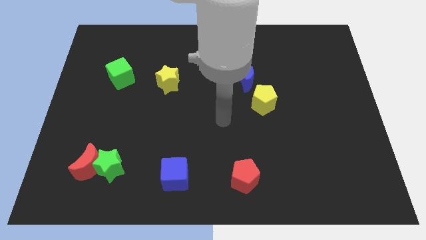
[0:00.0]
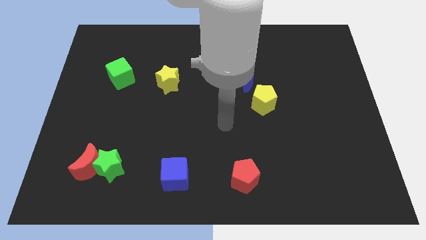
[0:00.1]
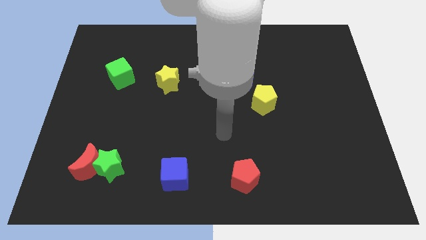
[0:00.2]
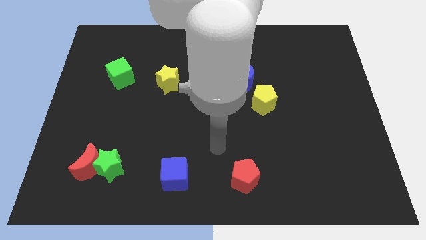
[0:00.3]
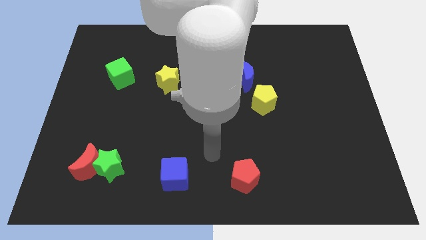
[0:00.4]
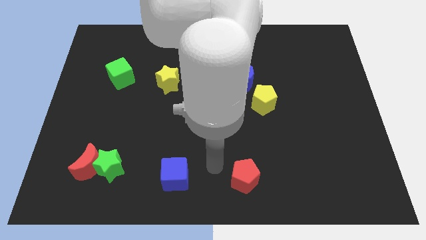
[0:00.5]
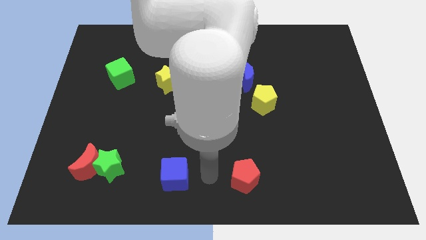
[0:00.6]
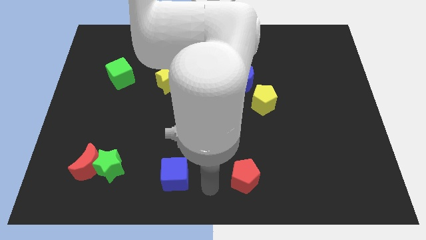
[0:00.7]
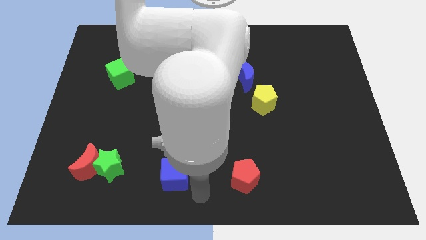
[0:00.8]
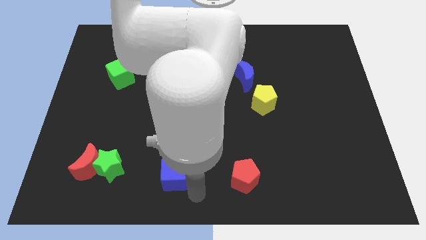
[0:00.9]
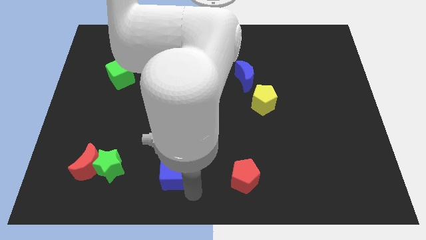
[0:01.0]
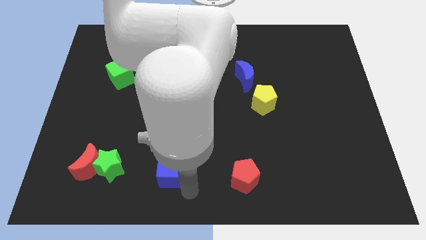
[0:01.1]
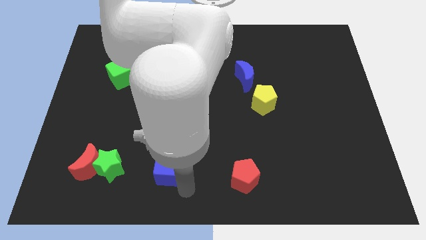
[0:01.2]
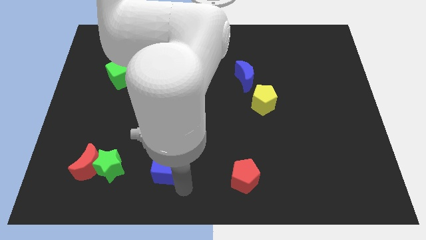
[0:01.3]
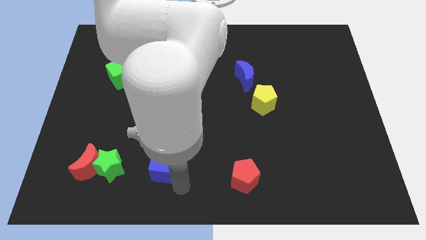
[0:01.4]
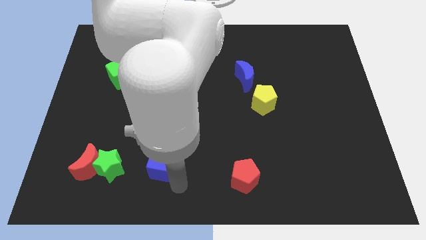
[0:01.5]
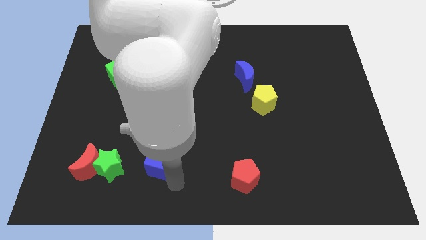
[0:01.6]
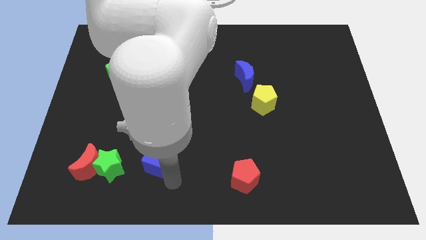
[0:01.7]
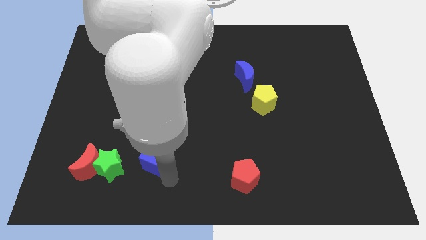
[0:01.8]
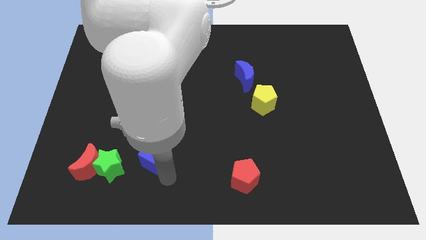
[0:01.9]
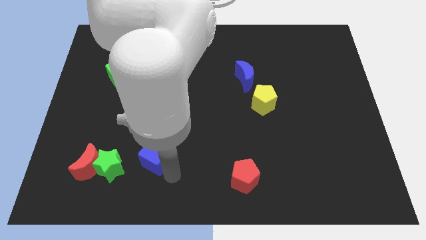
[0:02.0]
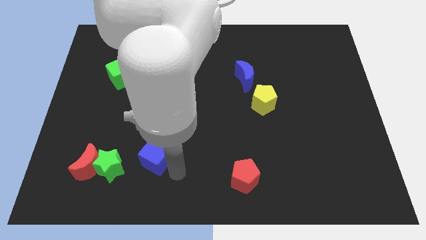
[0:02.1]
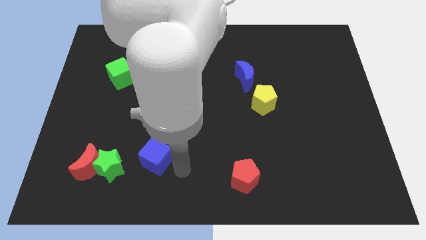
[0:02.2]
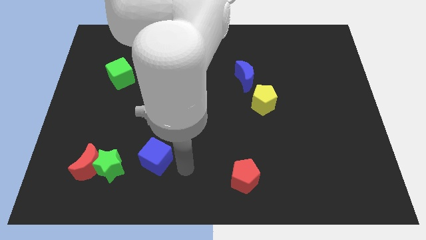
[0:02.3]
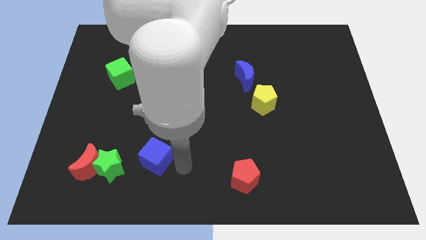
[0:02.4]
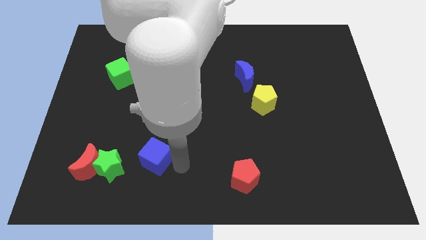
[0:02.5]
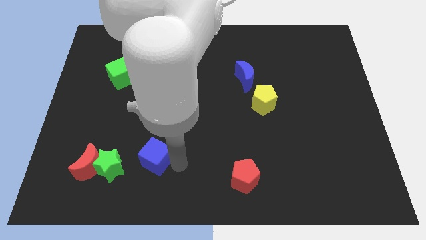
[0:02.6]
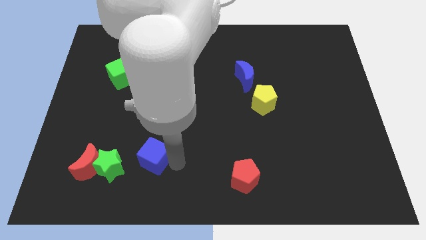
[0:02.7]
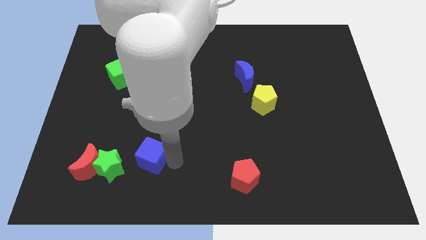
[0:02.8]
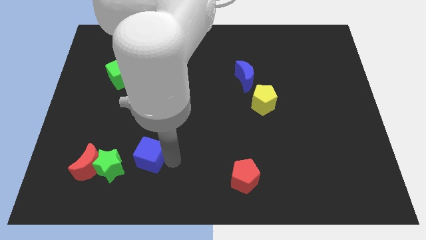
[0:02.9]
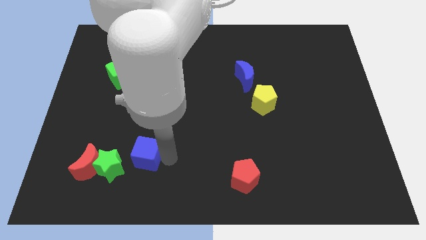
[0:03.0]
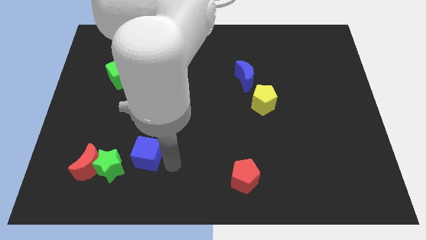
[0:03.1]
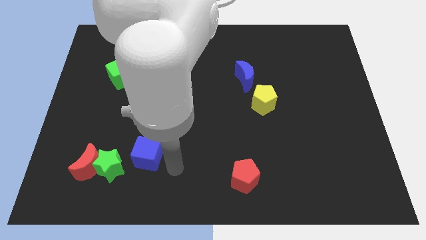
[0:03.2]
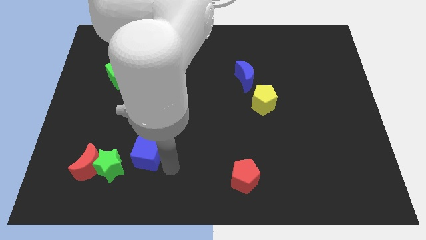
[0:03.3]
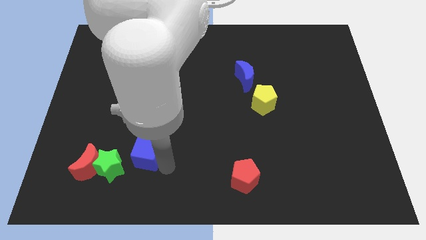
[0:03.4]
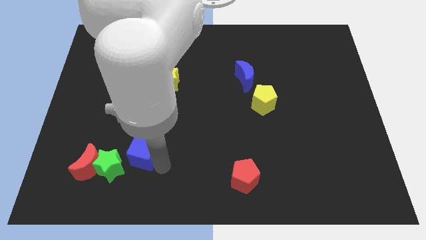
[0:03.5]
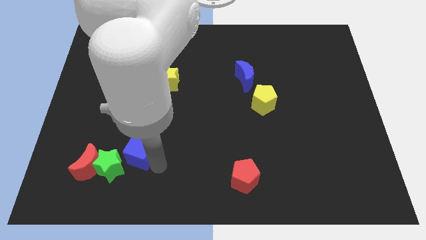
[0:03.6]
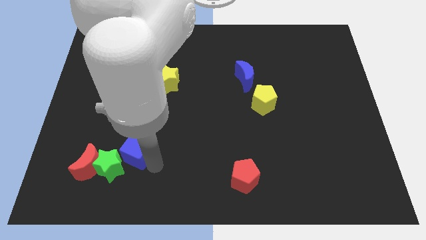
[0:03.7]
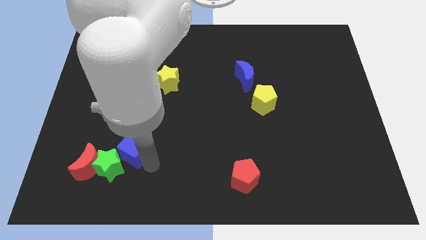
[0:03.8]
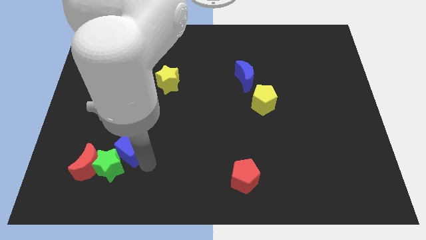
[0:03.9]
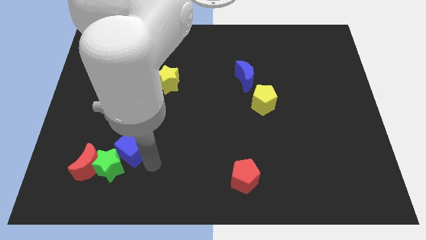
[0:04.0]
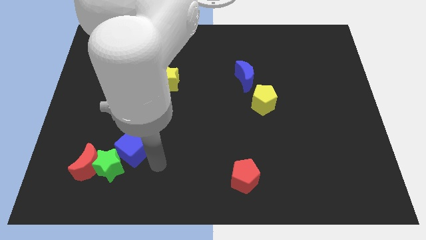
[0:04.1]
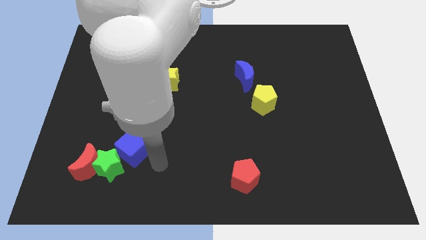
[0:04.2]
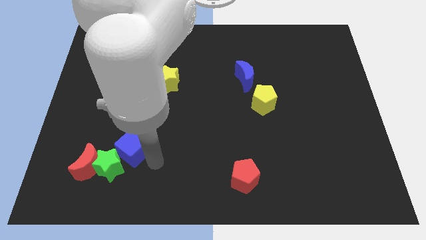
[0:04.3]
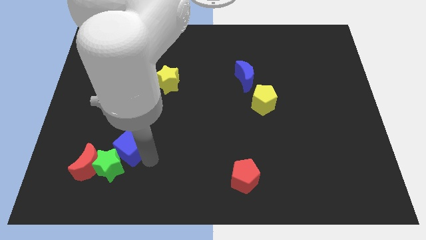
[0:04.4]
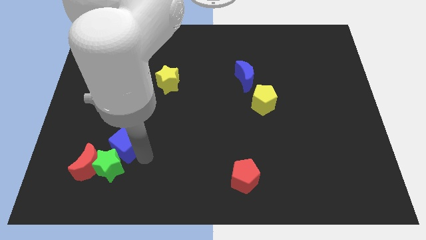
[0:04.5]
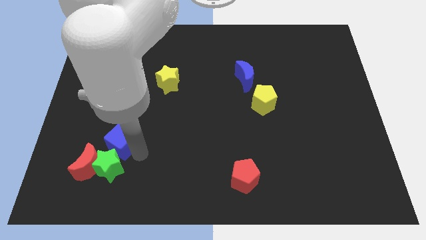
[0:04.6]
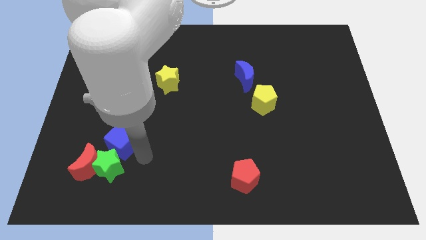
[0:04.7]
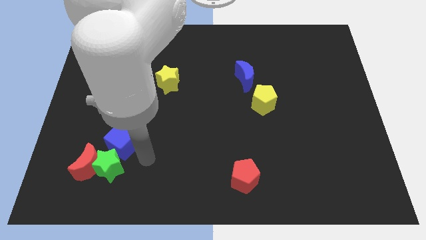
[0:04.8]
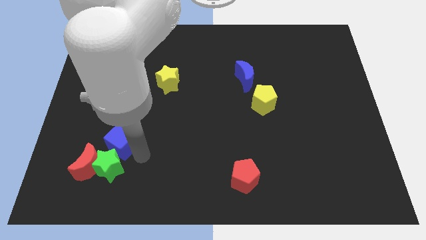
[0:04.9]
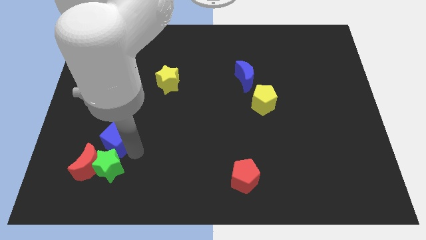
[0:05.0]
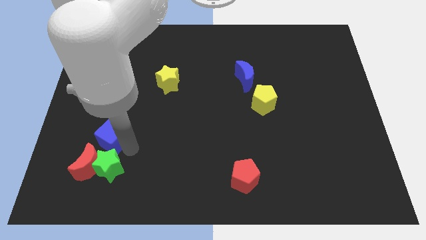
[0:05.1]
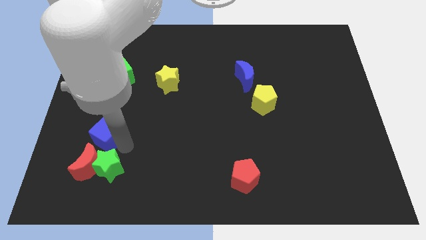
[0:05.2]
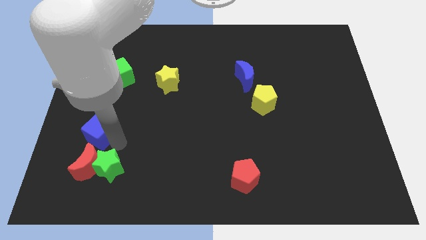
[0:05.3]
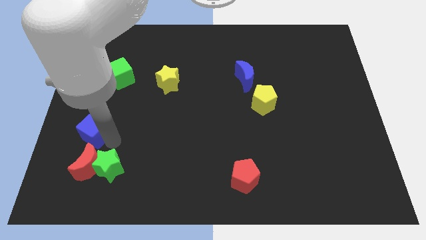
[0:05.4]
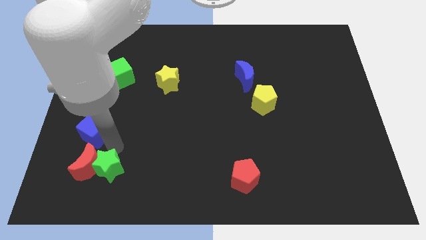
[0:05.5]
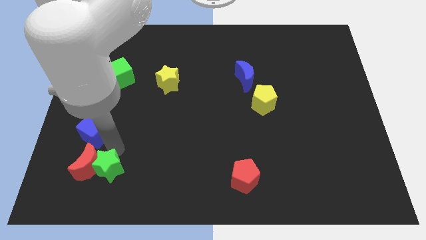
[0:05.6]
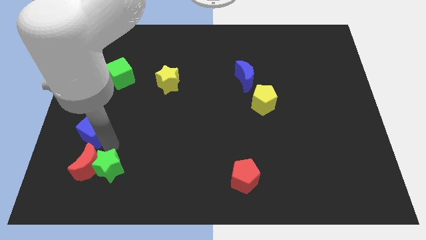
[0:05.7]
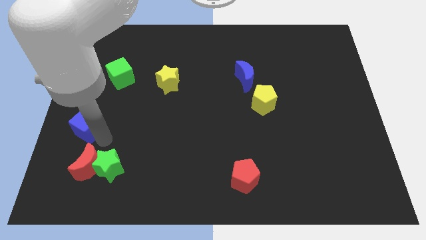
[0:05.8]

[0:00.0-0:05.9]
put the blue cube to the left side of the board
